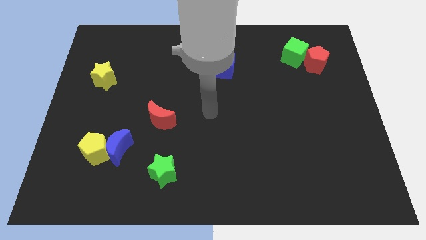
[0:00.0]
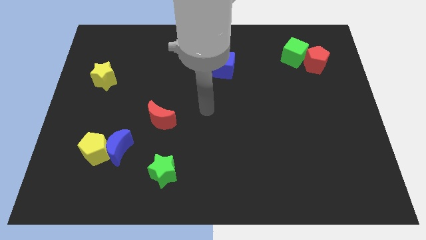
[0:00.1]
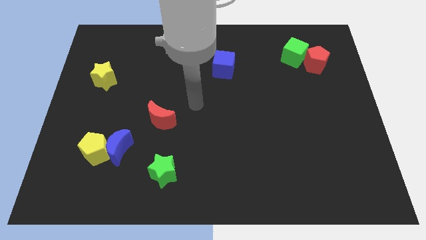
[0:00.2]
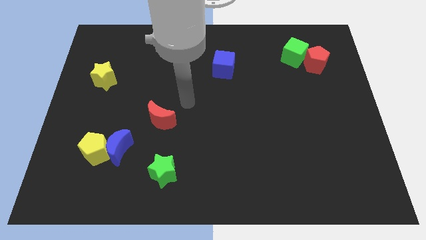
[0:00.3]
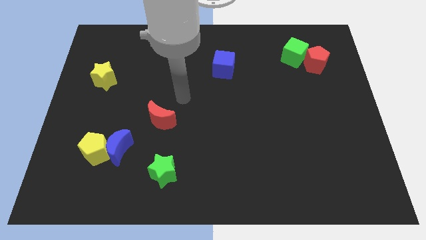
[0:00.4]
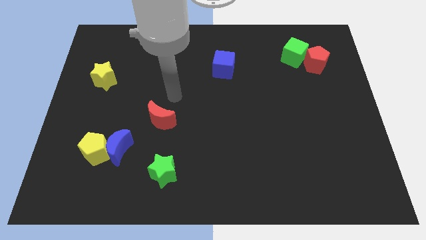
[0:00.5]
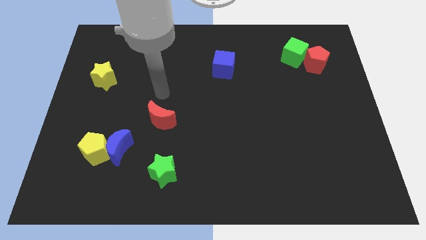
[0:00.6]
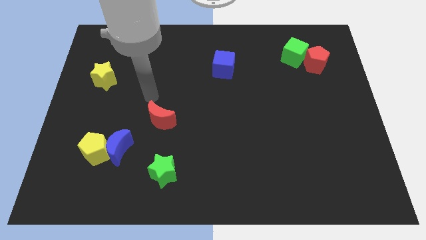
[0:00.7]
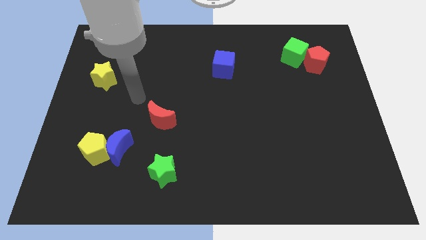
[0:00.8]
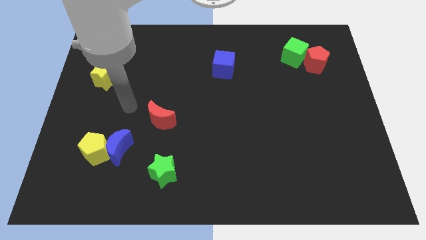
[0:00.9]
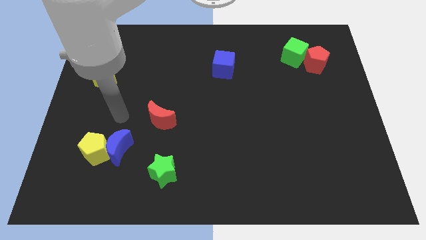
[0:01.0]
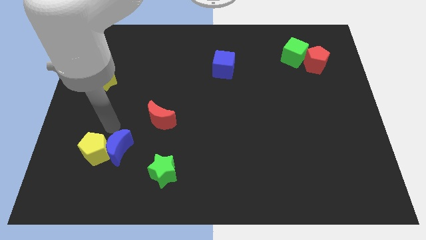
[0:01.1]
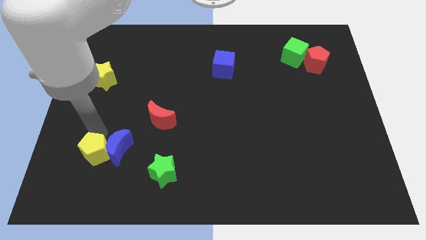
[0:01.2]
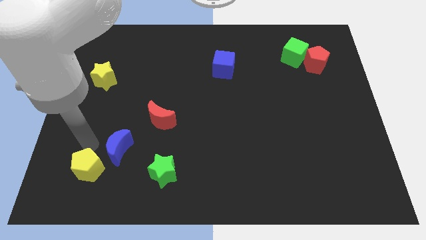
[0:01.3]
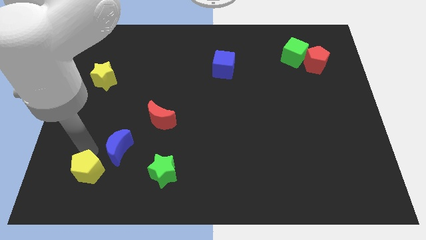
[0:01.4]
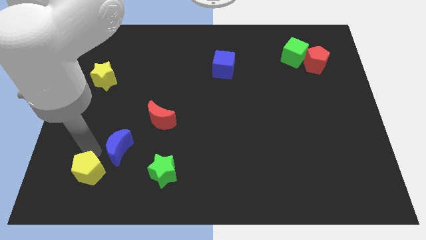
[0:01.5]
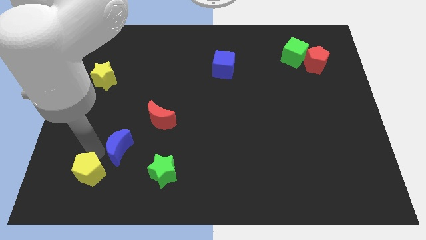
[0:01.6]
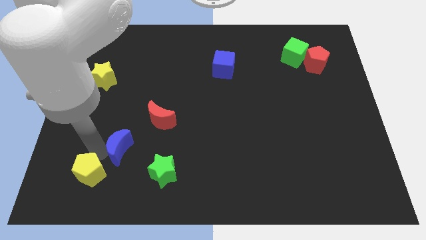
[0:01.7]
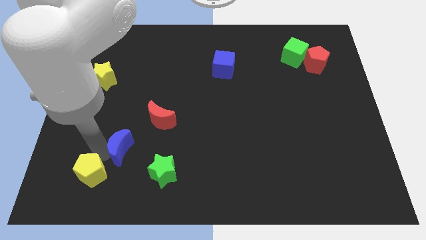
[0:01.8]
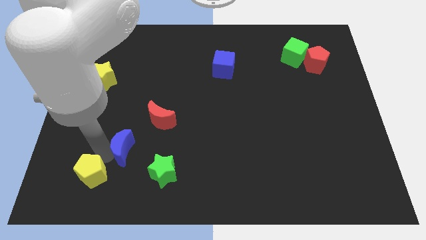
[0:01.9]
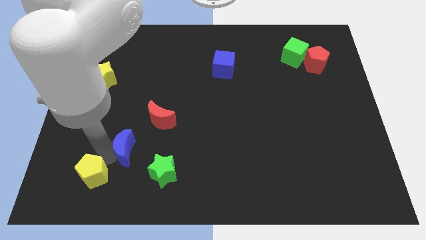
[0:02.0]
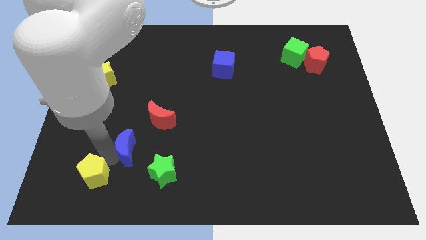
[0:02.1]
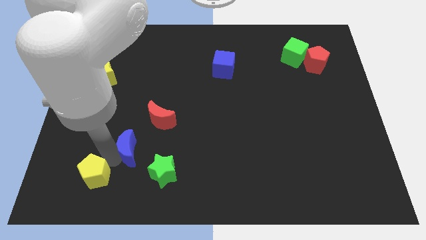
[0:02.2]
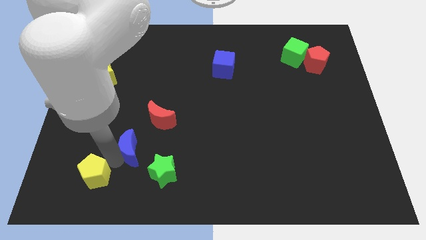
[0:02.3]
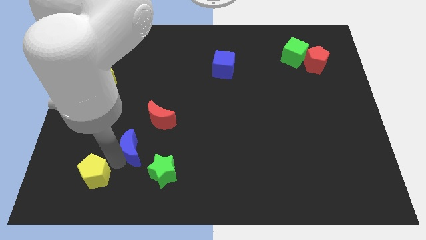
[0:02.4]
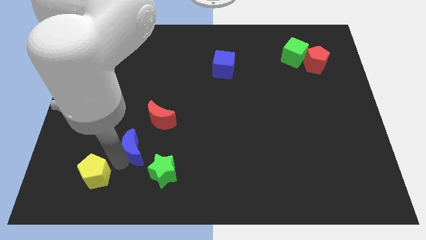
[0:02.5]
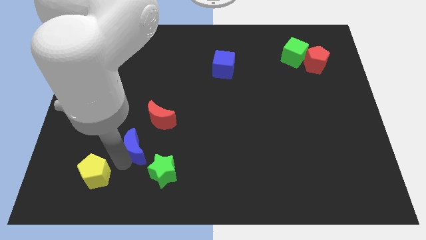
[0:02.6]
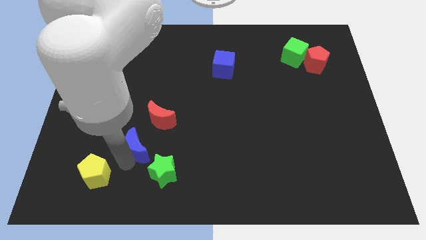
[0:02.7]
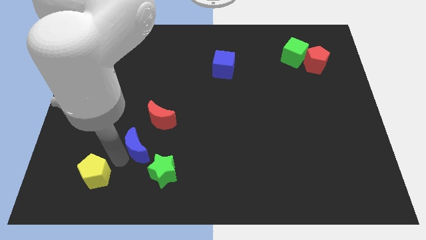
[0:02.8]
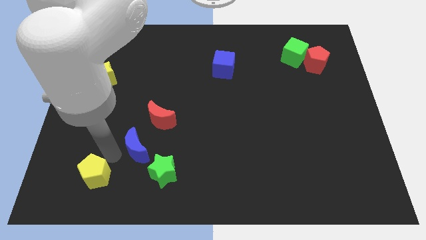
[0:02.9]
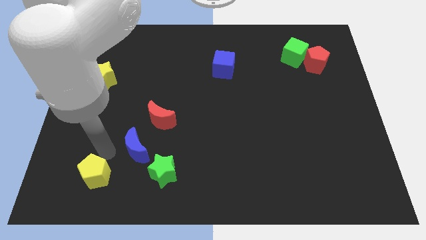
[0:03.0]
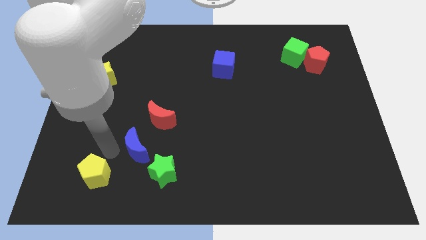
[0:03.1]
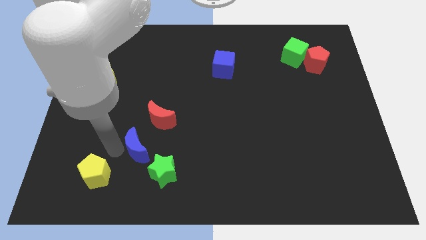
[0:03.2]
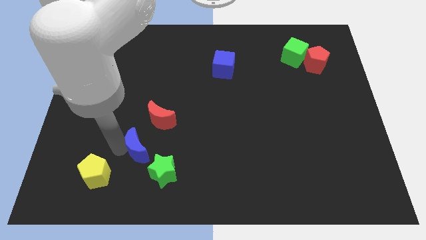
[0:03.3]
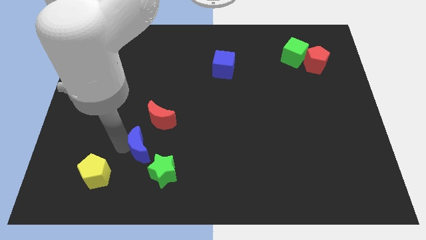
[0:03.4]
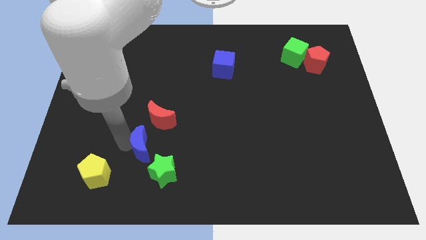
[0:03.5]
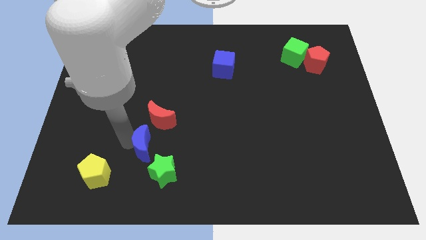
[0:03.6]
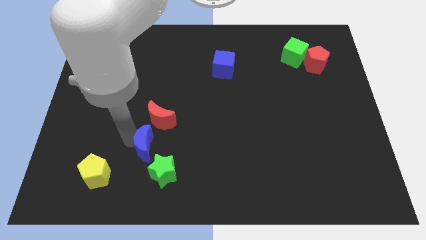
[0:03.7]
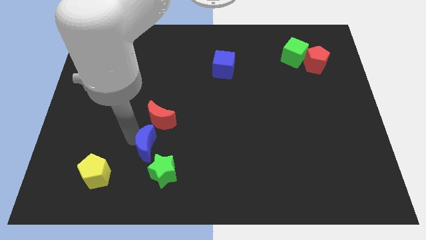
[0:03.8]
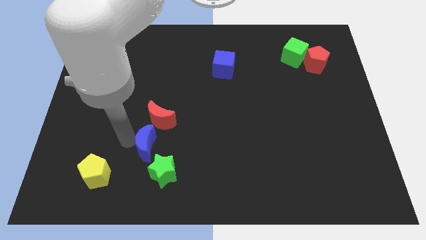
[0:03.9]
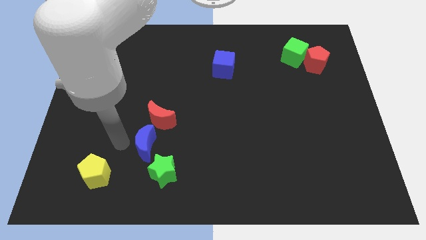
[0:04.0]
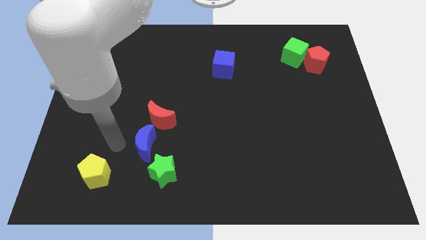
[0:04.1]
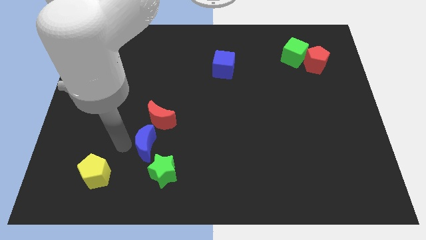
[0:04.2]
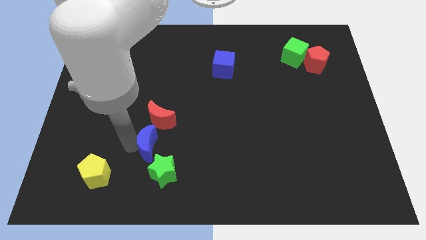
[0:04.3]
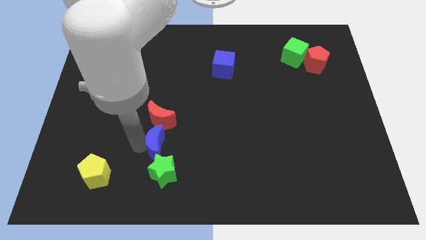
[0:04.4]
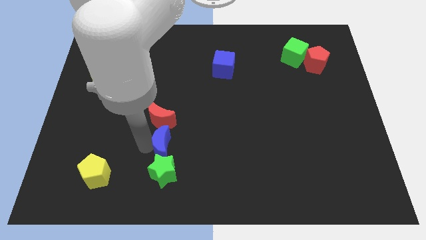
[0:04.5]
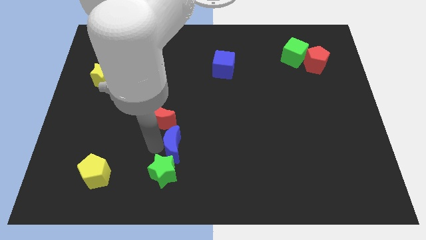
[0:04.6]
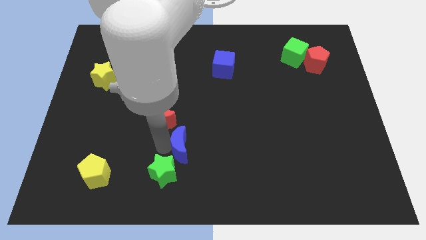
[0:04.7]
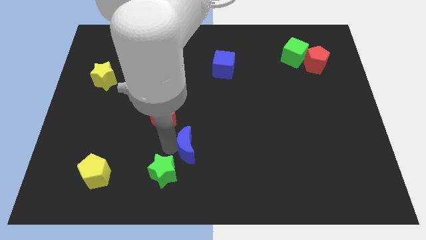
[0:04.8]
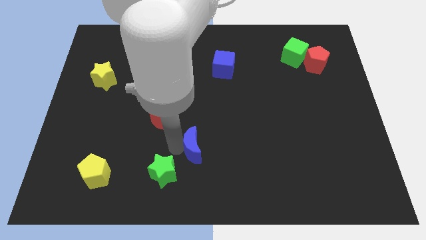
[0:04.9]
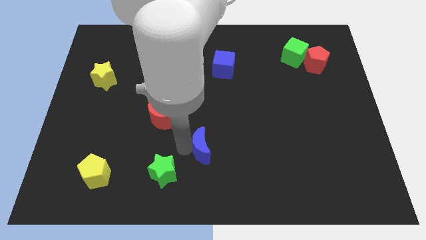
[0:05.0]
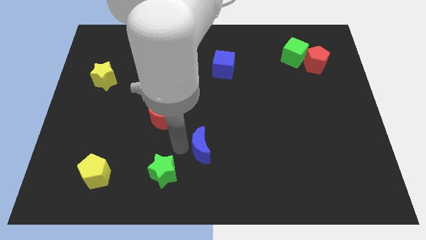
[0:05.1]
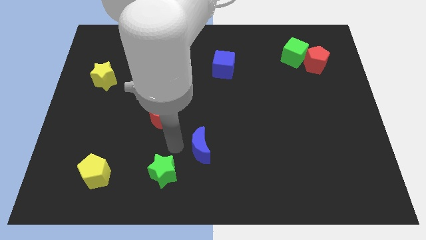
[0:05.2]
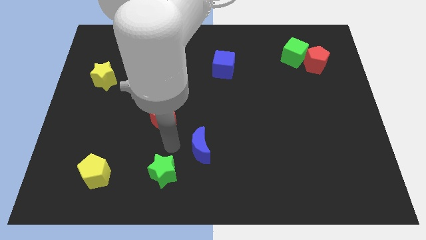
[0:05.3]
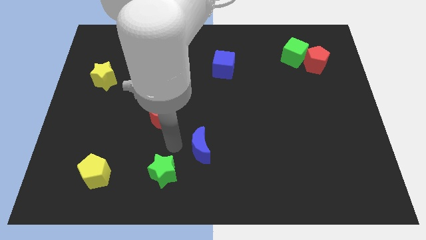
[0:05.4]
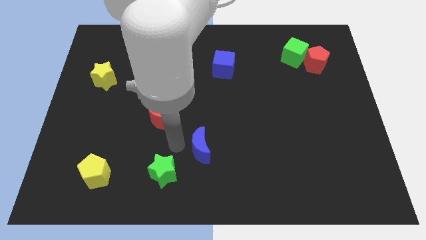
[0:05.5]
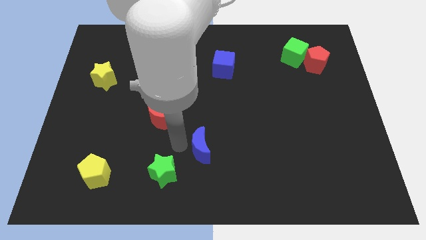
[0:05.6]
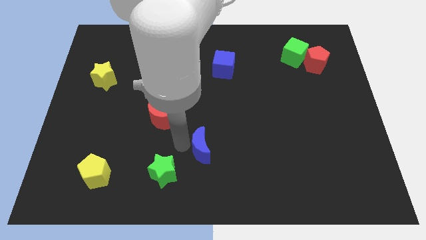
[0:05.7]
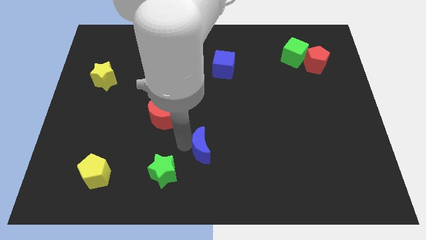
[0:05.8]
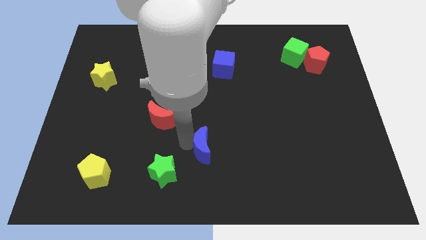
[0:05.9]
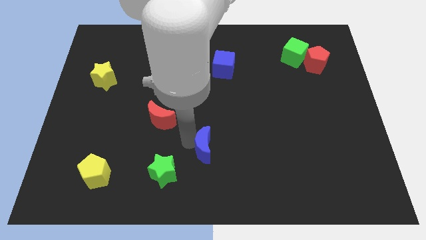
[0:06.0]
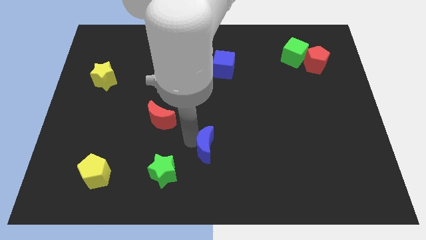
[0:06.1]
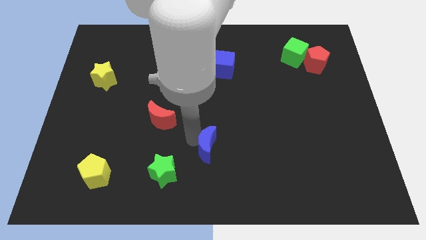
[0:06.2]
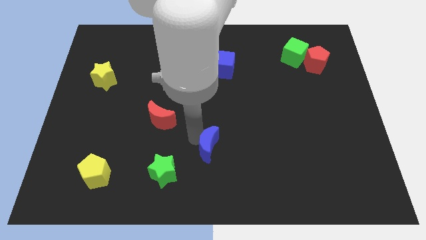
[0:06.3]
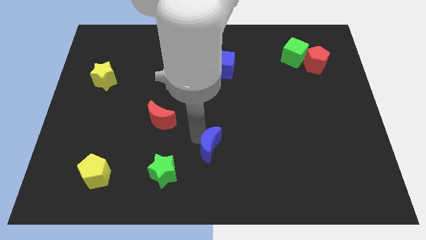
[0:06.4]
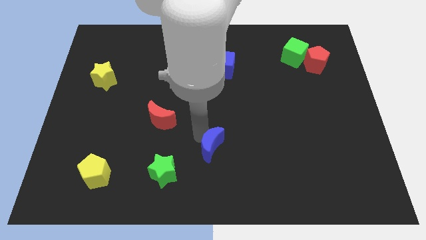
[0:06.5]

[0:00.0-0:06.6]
move the blue moon right

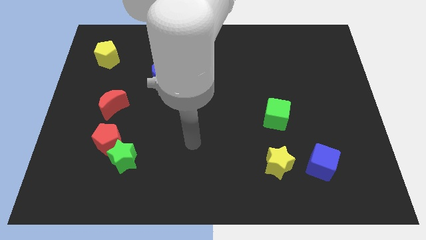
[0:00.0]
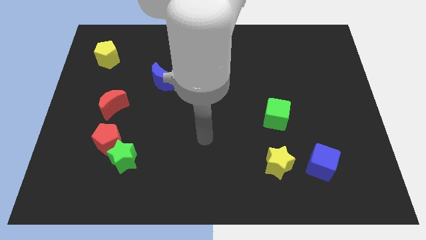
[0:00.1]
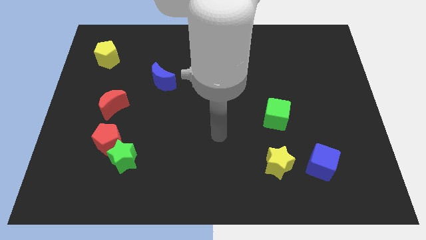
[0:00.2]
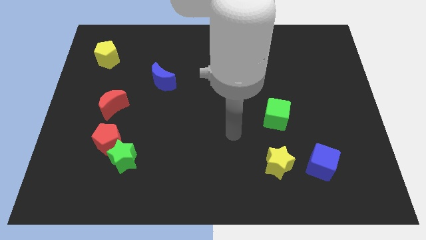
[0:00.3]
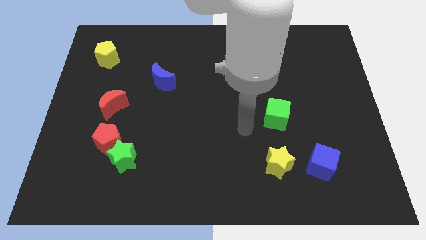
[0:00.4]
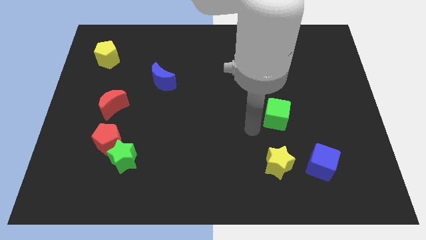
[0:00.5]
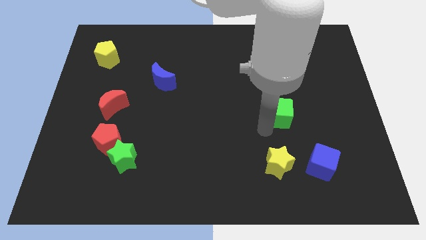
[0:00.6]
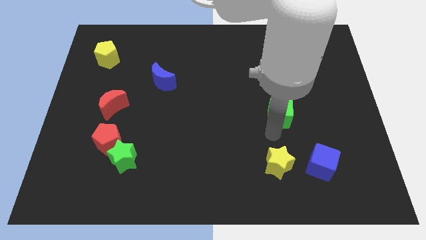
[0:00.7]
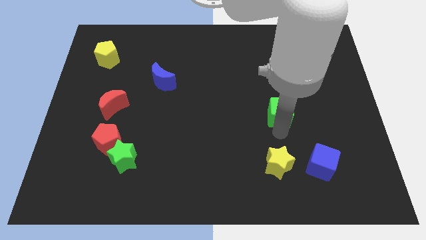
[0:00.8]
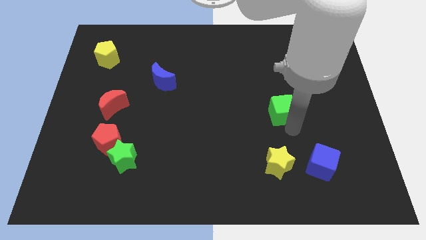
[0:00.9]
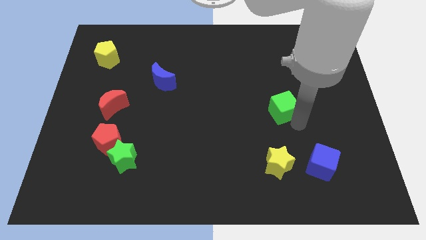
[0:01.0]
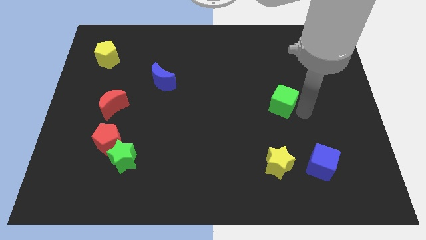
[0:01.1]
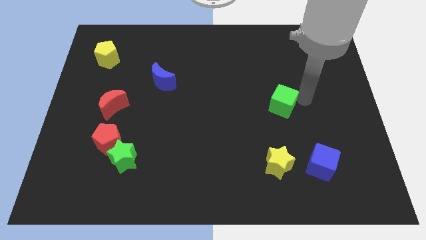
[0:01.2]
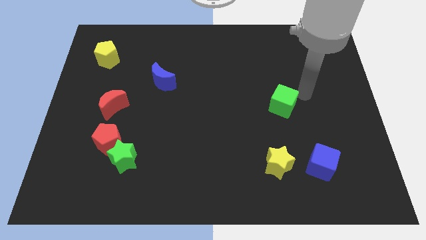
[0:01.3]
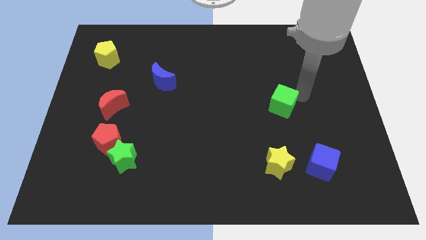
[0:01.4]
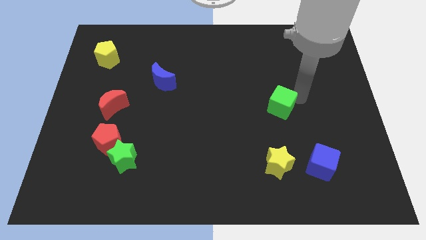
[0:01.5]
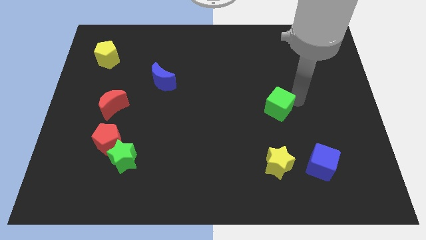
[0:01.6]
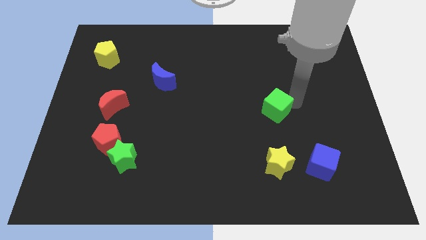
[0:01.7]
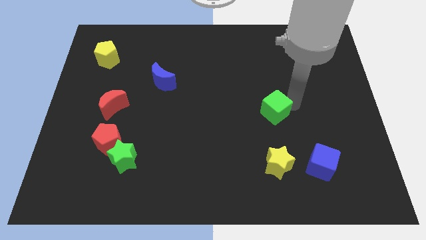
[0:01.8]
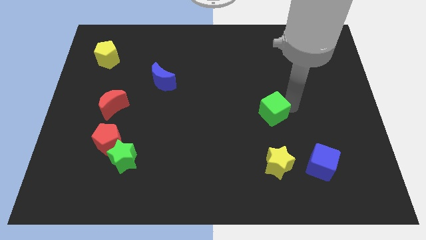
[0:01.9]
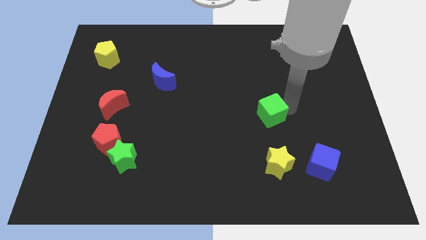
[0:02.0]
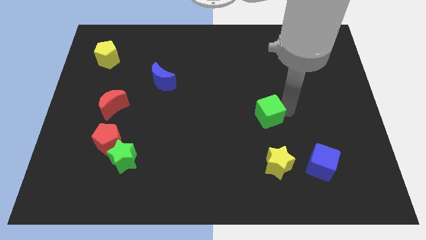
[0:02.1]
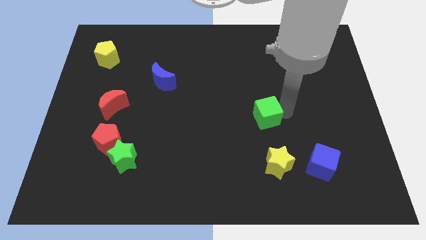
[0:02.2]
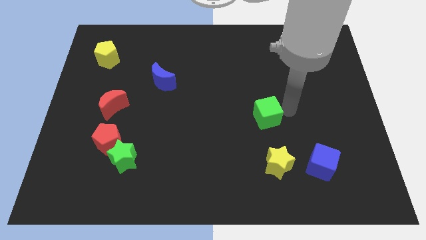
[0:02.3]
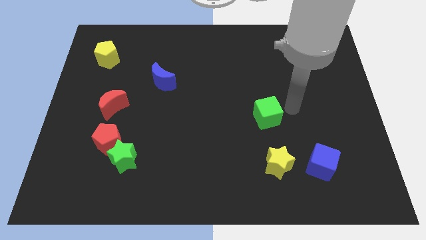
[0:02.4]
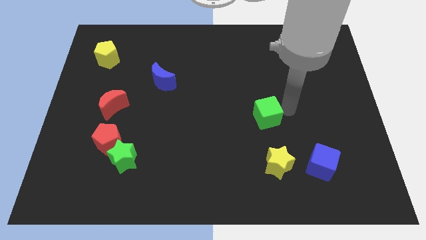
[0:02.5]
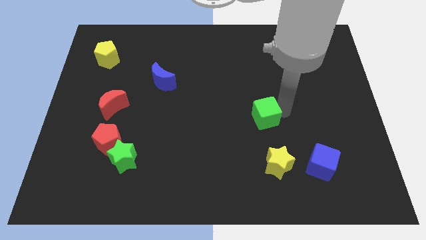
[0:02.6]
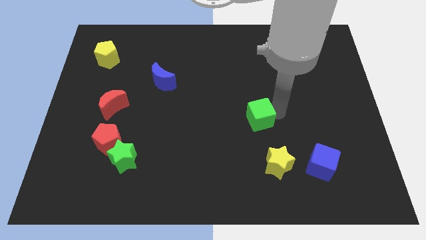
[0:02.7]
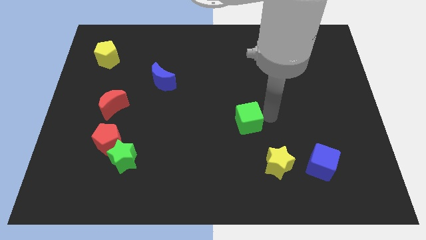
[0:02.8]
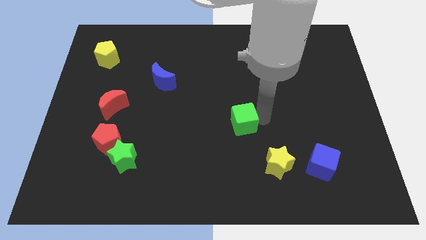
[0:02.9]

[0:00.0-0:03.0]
move the green cube slightly to the left
